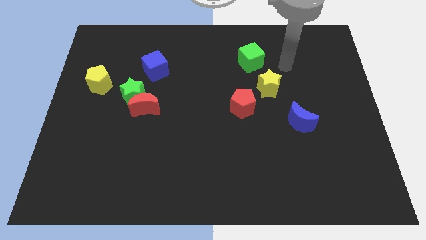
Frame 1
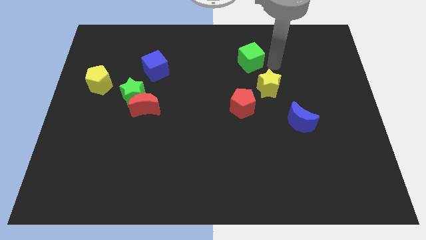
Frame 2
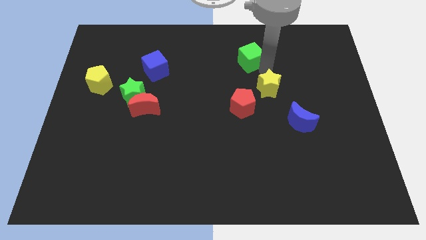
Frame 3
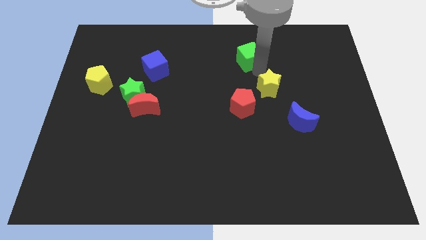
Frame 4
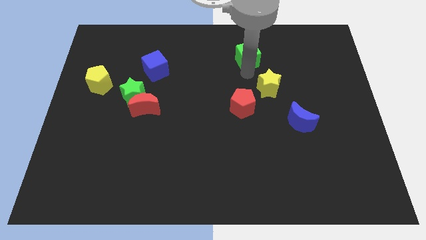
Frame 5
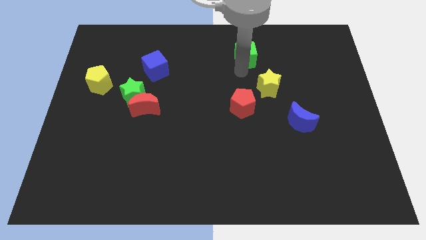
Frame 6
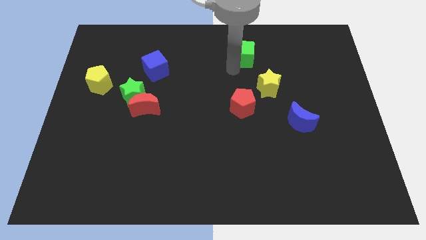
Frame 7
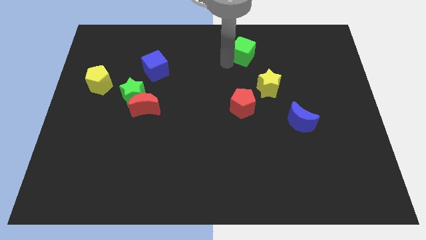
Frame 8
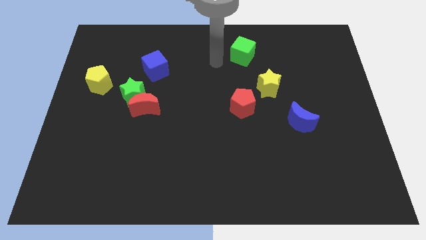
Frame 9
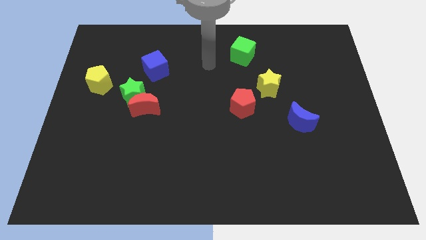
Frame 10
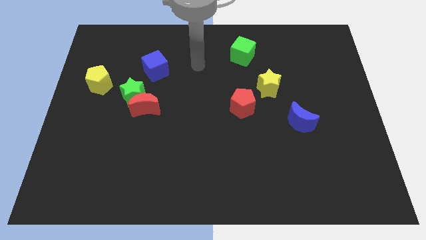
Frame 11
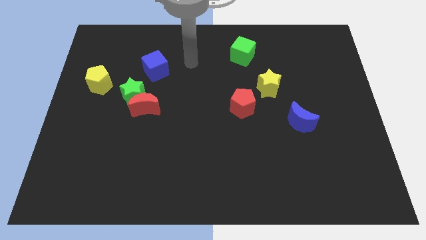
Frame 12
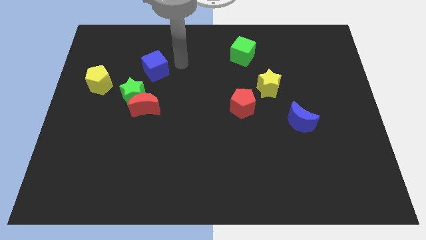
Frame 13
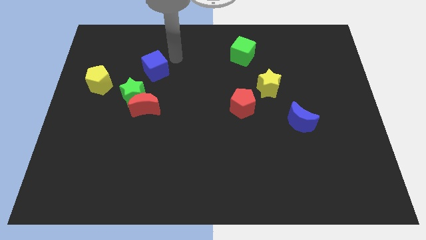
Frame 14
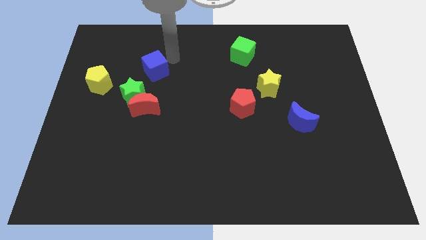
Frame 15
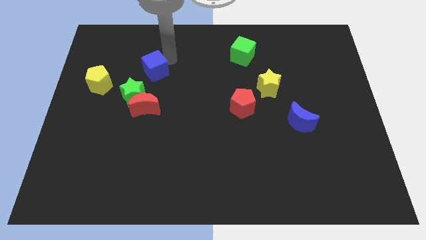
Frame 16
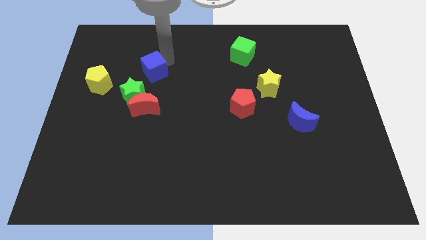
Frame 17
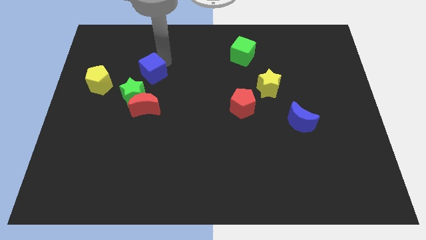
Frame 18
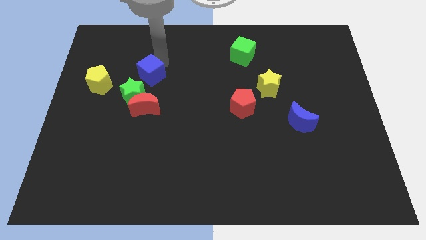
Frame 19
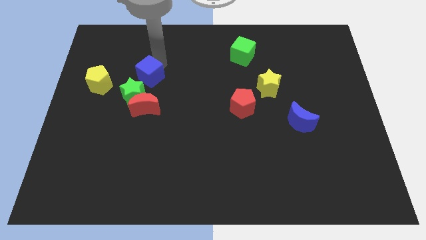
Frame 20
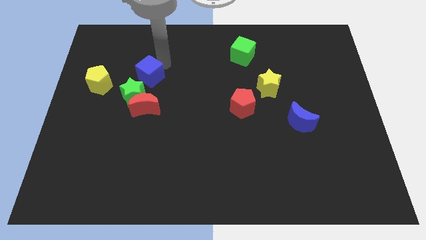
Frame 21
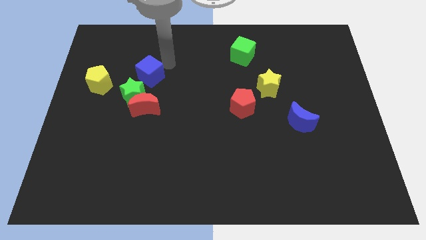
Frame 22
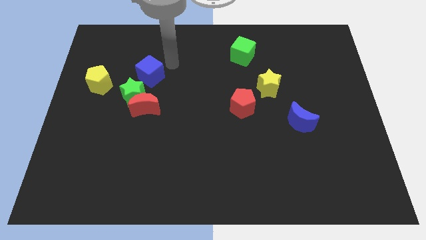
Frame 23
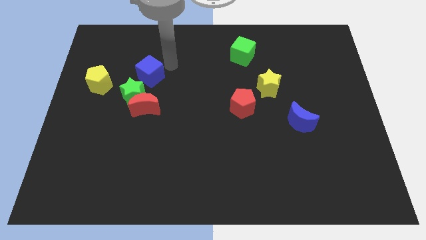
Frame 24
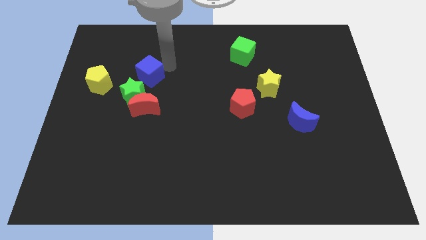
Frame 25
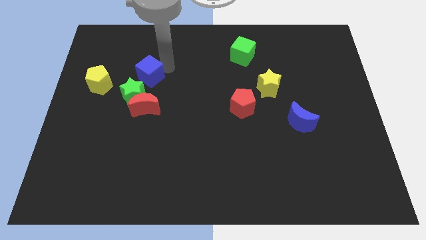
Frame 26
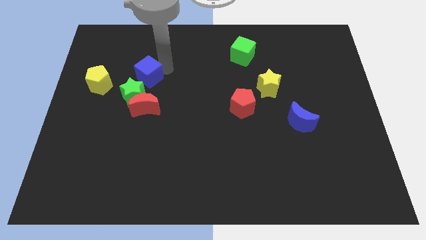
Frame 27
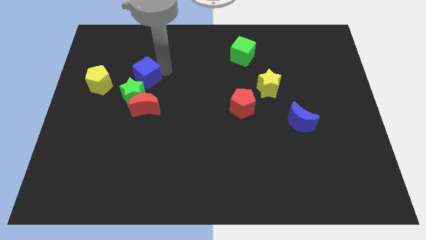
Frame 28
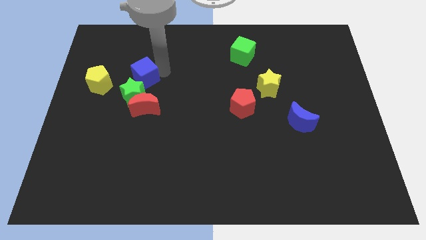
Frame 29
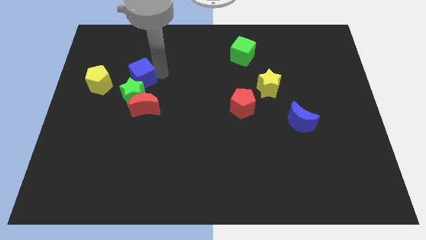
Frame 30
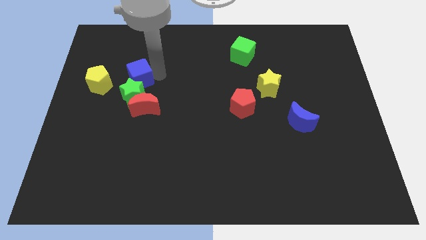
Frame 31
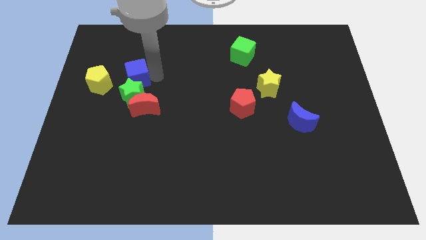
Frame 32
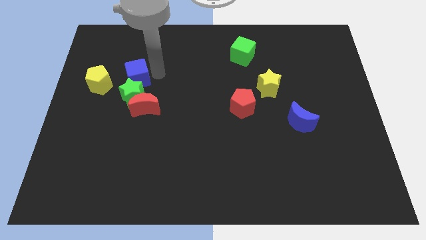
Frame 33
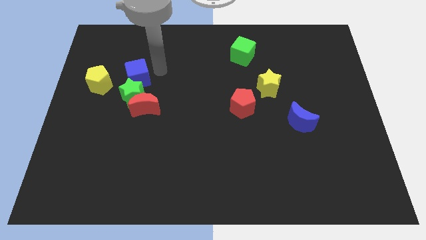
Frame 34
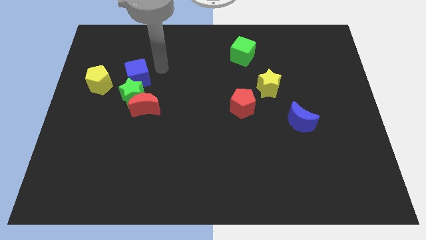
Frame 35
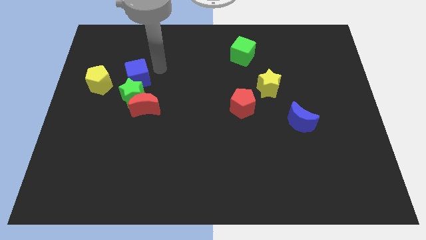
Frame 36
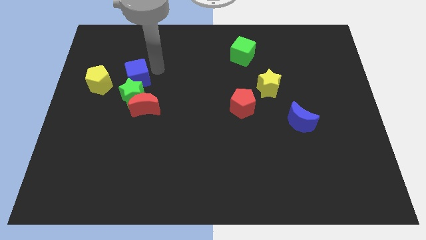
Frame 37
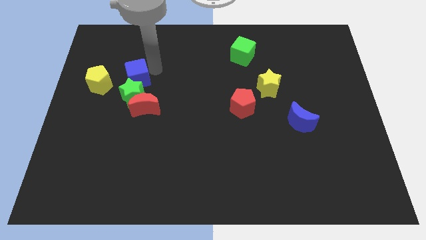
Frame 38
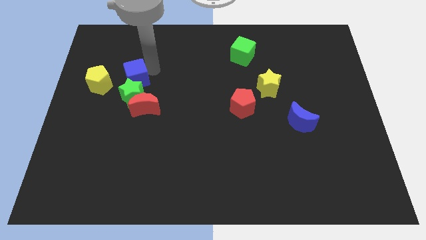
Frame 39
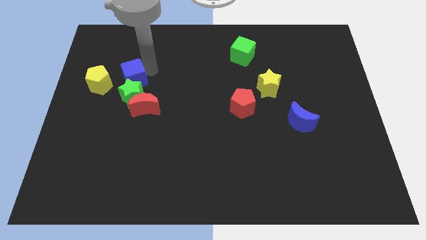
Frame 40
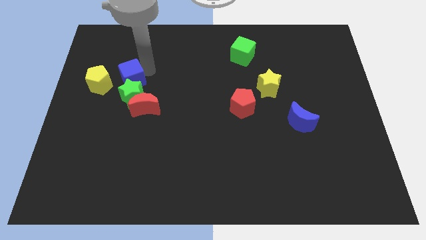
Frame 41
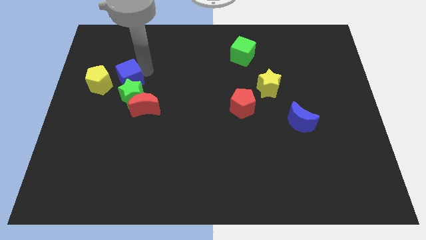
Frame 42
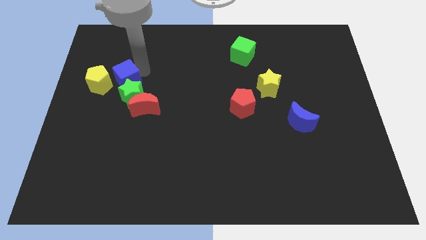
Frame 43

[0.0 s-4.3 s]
move the blue cube somewhat down and to the left

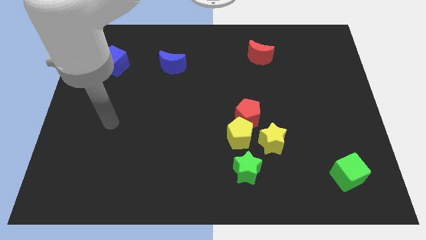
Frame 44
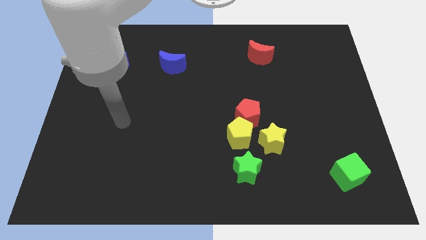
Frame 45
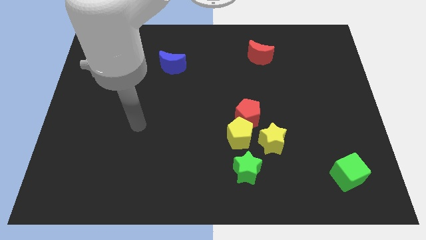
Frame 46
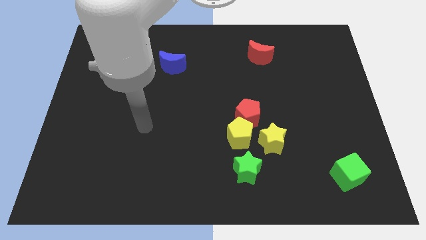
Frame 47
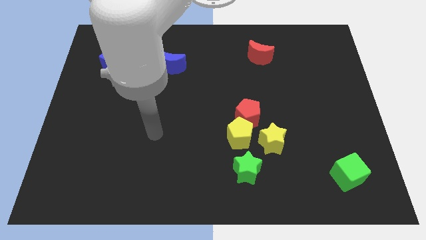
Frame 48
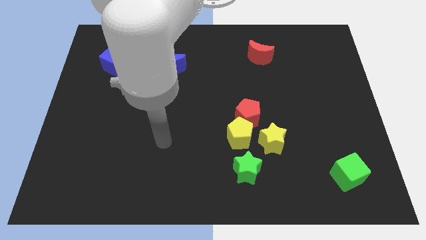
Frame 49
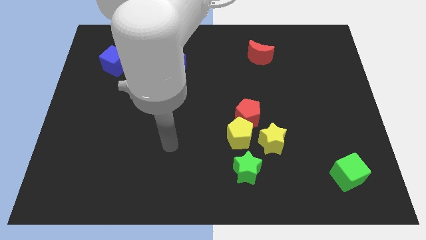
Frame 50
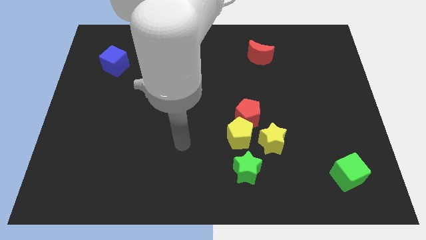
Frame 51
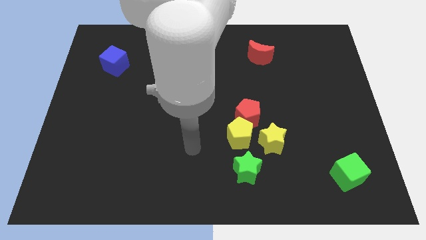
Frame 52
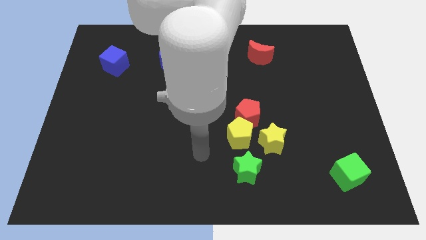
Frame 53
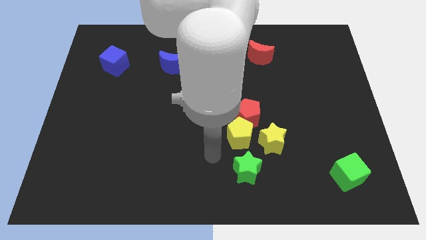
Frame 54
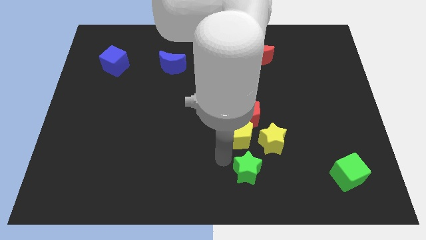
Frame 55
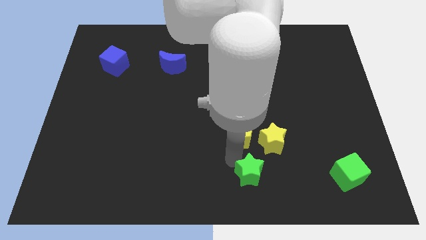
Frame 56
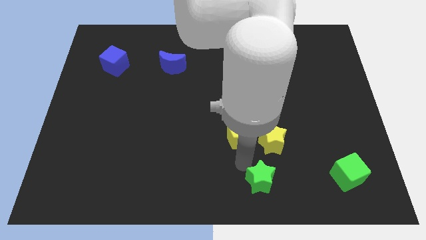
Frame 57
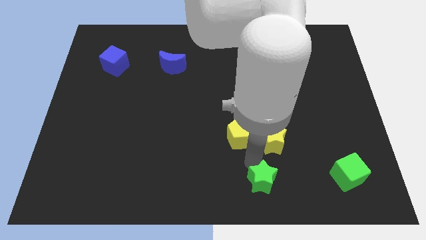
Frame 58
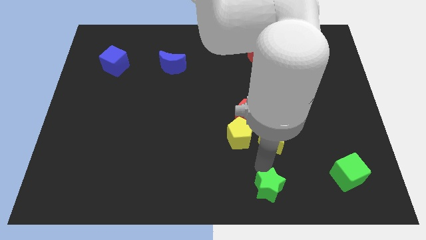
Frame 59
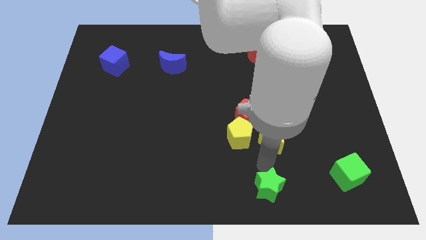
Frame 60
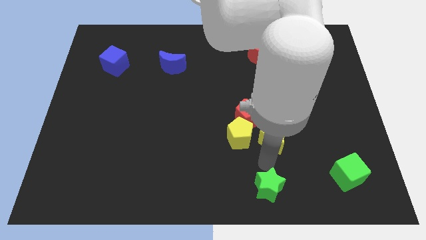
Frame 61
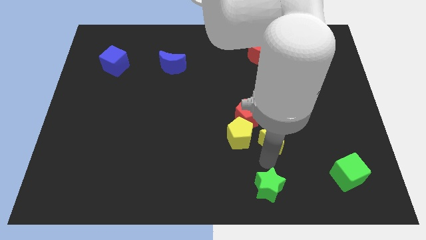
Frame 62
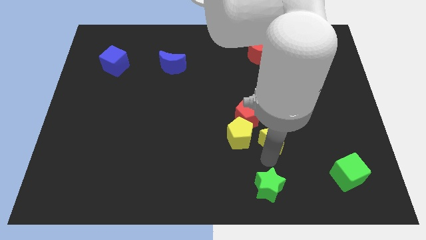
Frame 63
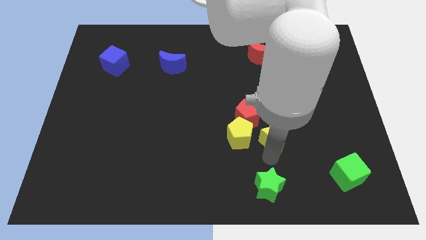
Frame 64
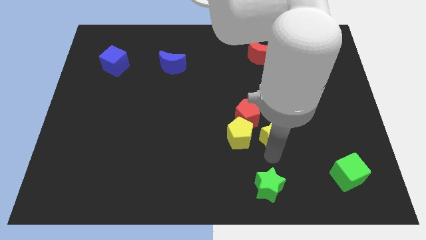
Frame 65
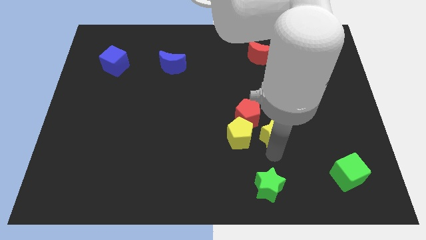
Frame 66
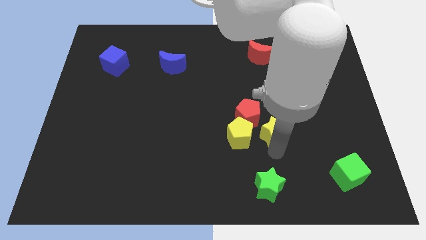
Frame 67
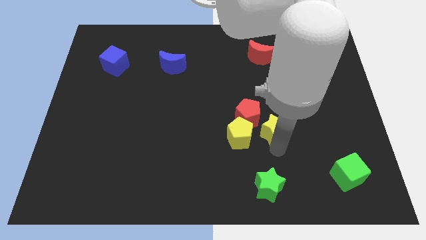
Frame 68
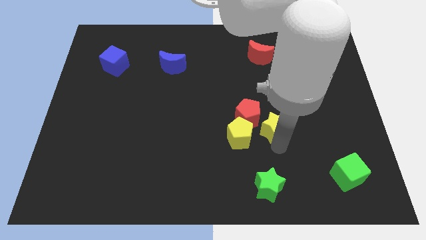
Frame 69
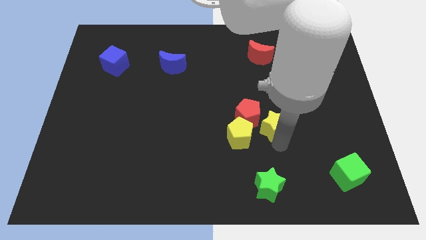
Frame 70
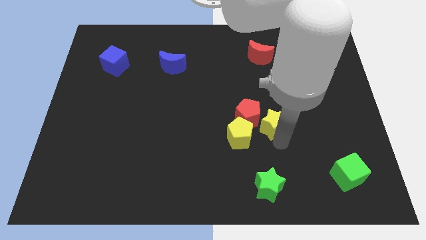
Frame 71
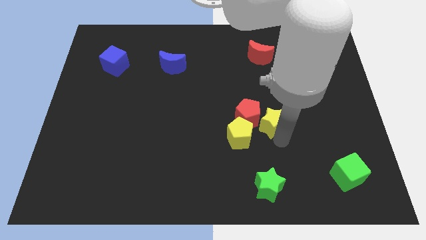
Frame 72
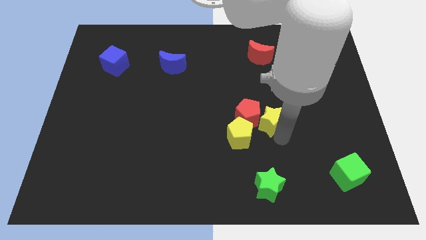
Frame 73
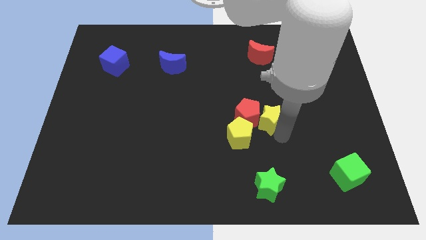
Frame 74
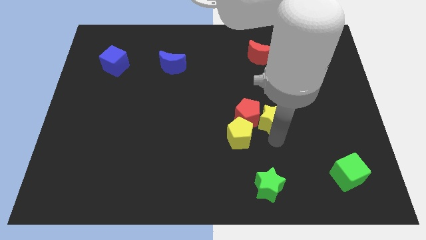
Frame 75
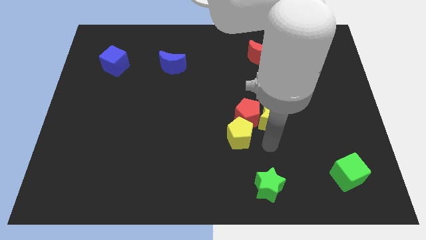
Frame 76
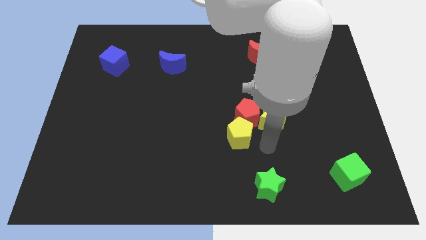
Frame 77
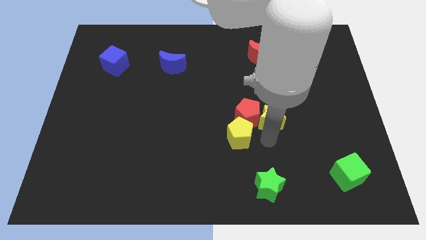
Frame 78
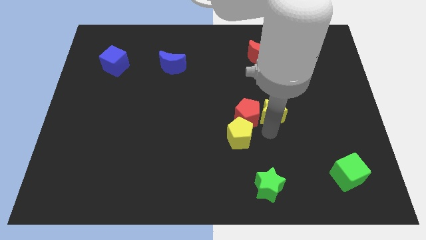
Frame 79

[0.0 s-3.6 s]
slide the yellow star upwards a little

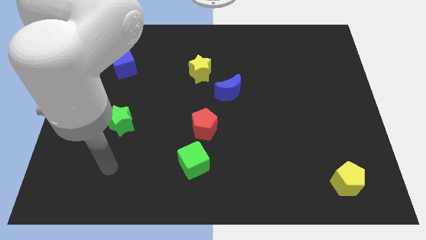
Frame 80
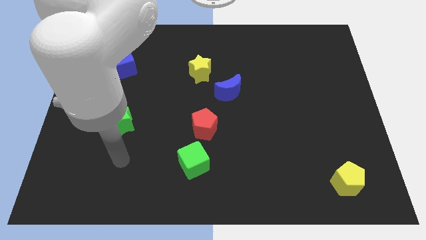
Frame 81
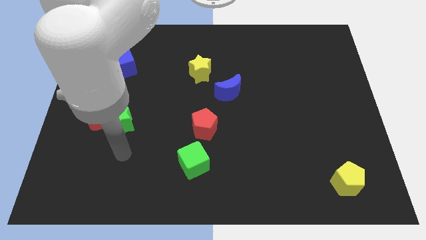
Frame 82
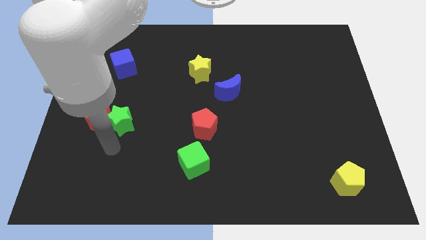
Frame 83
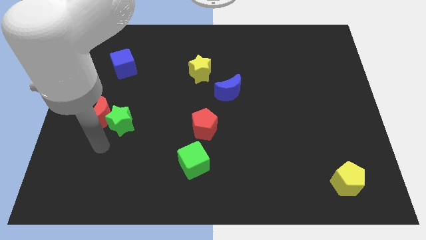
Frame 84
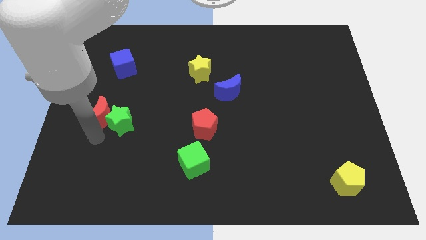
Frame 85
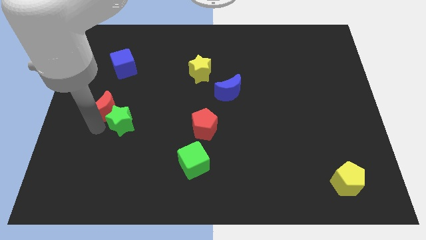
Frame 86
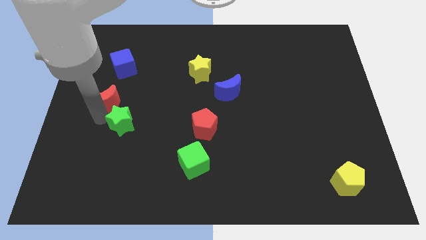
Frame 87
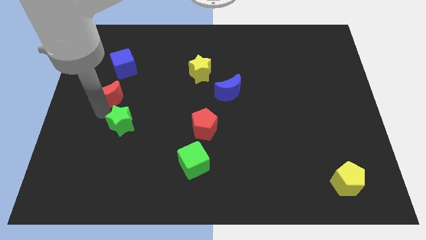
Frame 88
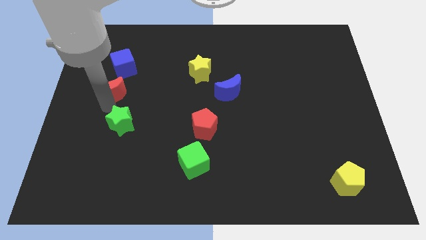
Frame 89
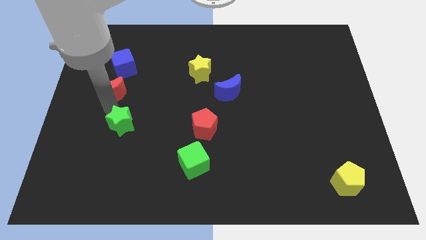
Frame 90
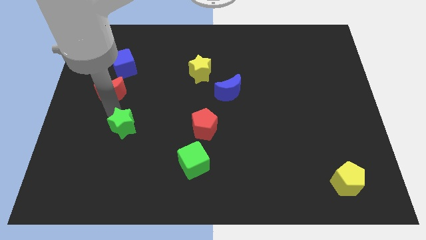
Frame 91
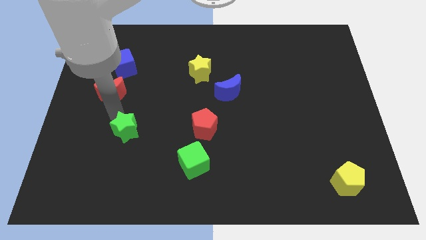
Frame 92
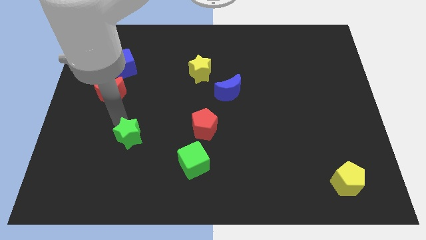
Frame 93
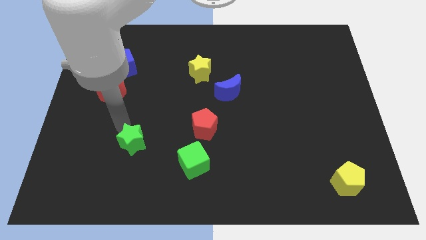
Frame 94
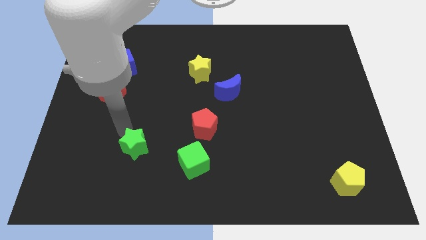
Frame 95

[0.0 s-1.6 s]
move the green star down and right diagonally slightly
